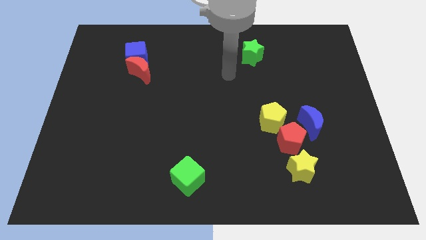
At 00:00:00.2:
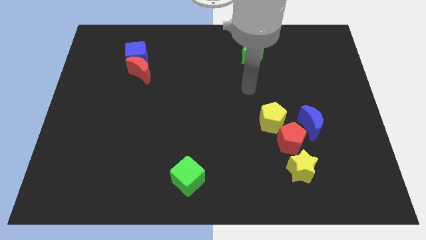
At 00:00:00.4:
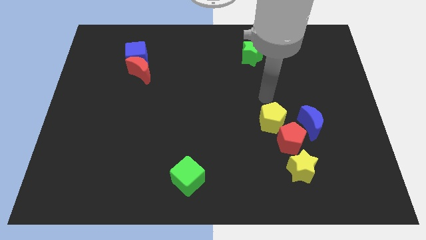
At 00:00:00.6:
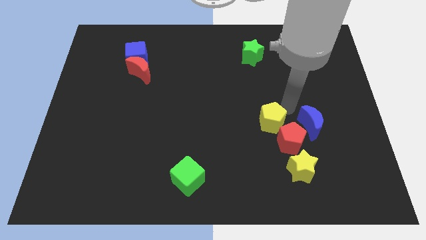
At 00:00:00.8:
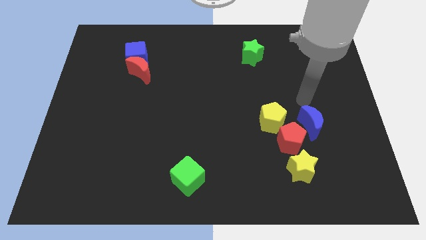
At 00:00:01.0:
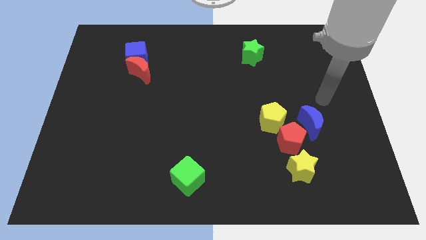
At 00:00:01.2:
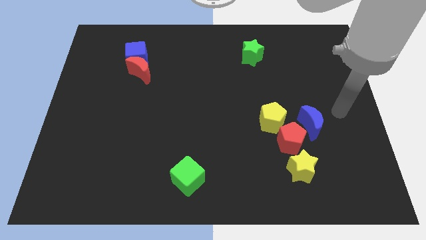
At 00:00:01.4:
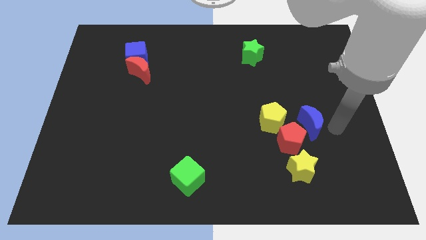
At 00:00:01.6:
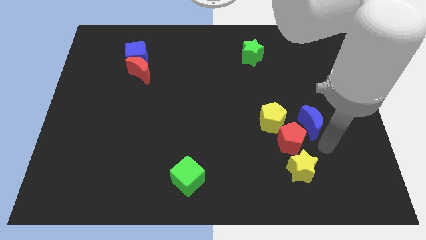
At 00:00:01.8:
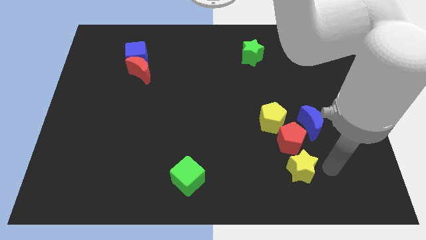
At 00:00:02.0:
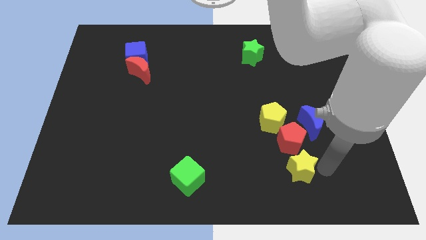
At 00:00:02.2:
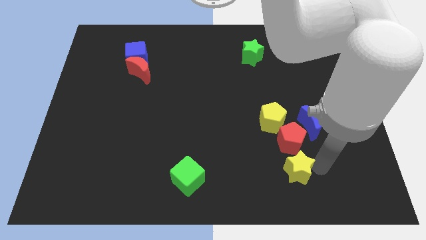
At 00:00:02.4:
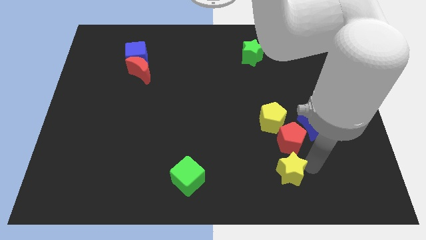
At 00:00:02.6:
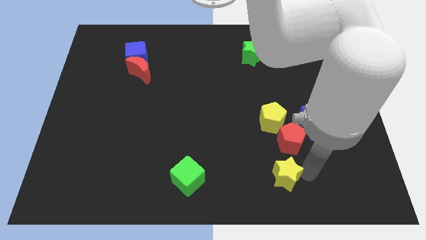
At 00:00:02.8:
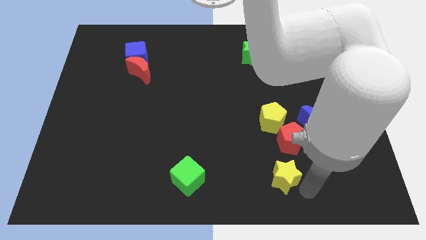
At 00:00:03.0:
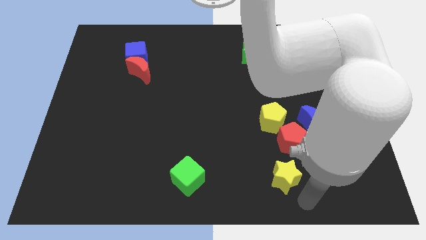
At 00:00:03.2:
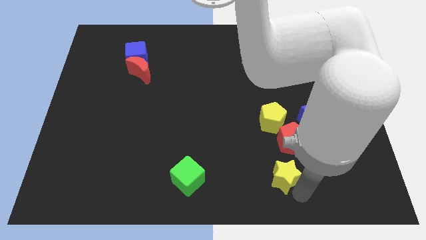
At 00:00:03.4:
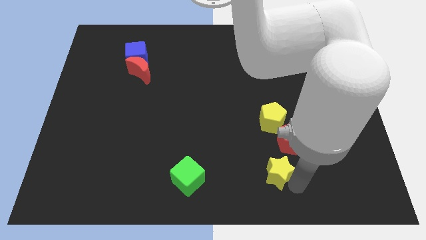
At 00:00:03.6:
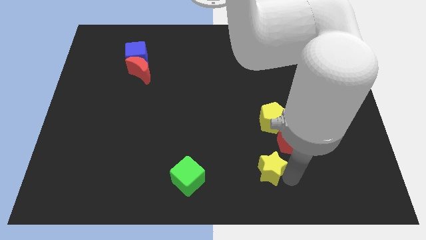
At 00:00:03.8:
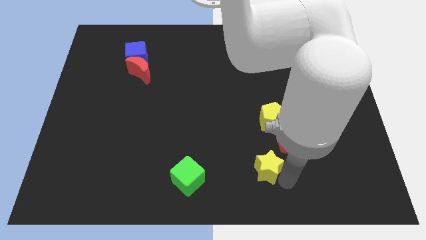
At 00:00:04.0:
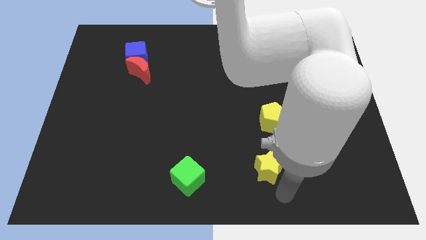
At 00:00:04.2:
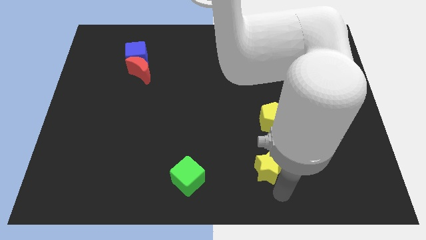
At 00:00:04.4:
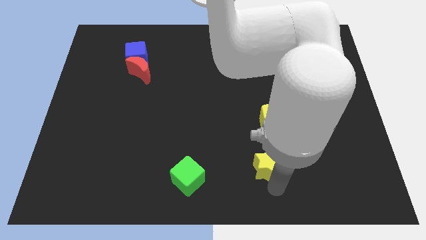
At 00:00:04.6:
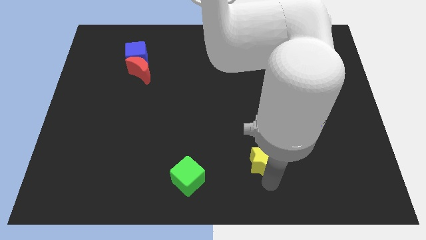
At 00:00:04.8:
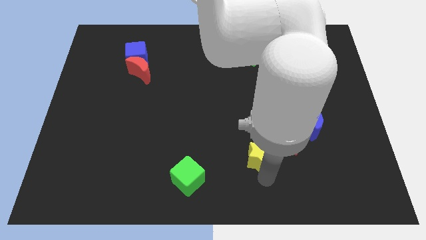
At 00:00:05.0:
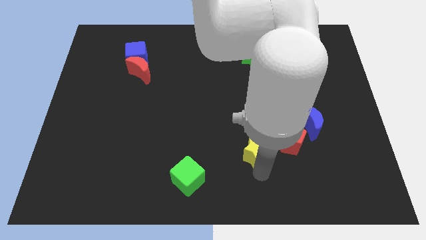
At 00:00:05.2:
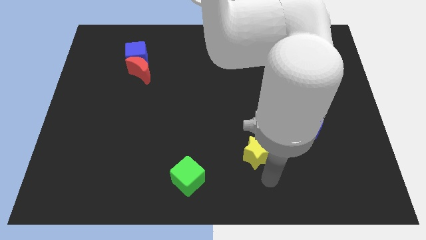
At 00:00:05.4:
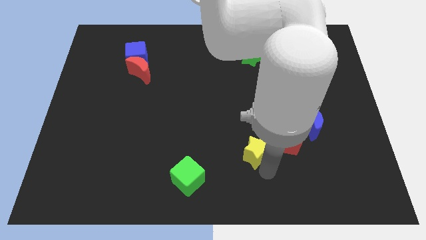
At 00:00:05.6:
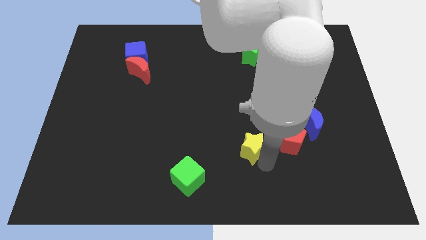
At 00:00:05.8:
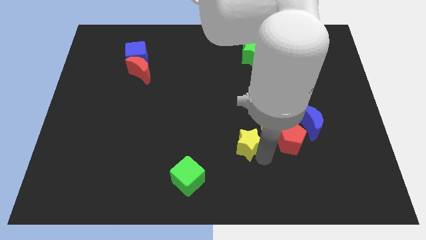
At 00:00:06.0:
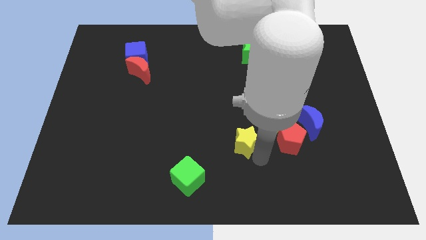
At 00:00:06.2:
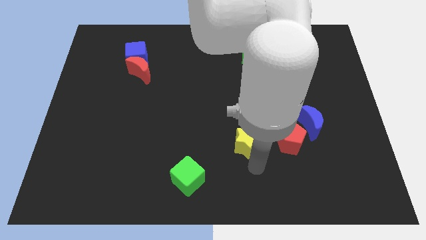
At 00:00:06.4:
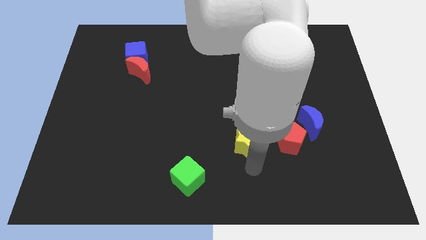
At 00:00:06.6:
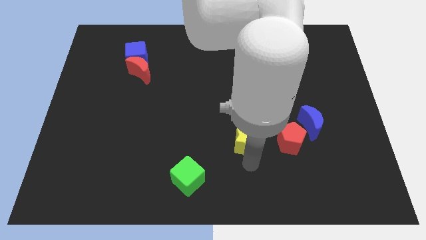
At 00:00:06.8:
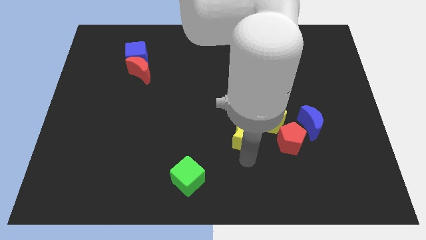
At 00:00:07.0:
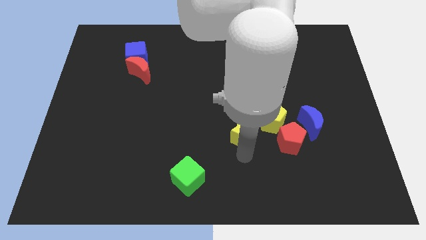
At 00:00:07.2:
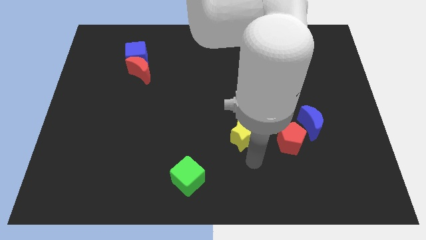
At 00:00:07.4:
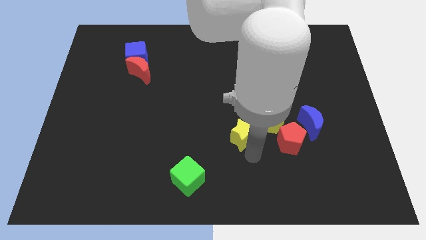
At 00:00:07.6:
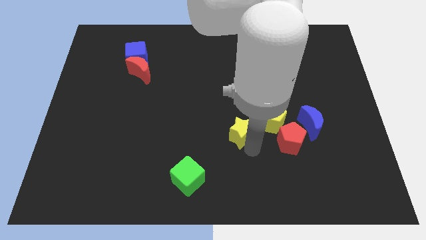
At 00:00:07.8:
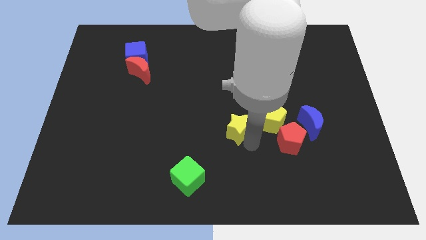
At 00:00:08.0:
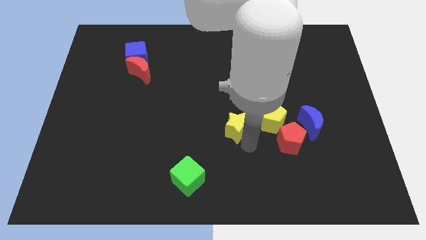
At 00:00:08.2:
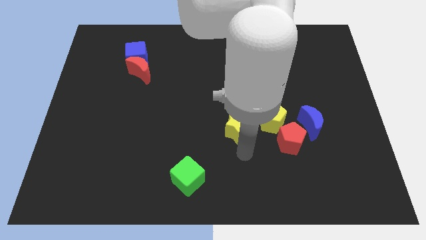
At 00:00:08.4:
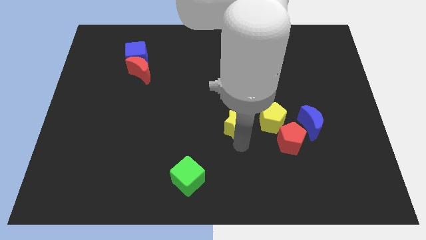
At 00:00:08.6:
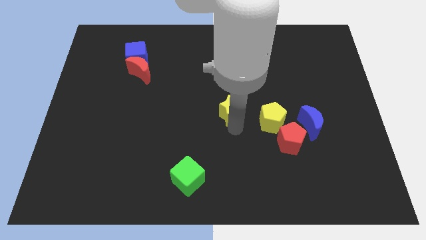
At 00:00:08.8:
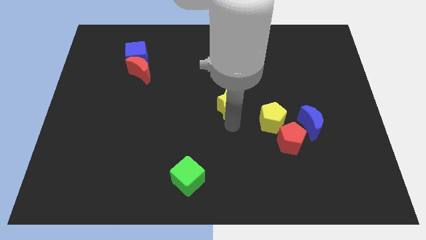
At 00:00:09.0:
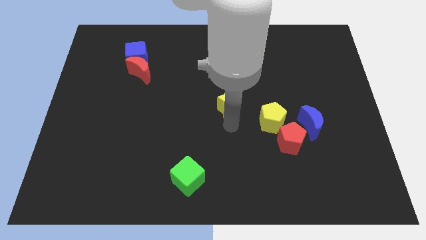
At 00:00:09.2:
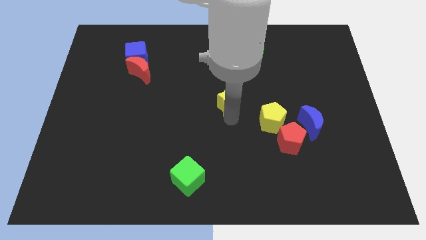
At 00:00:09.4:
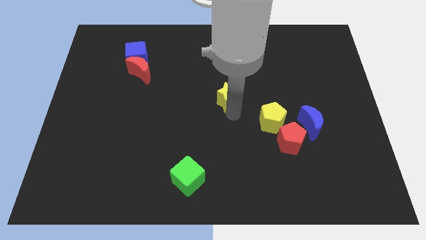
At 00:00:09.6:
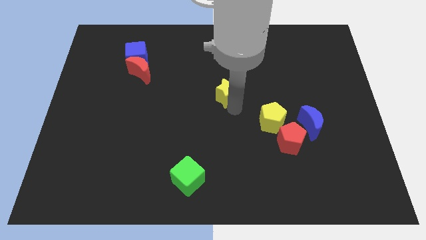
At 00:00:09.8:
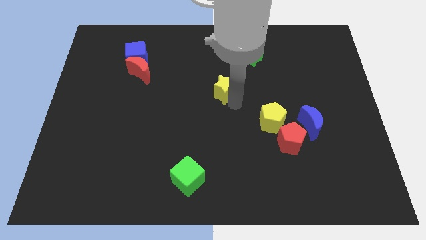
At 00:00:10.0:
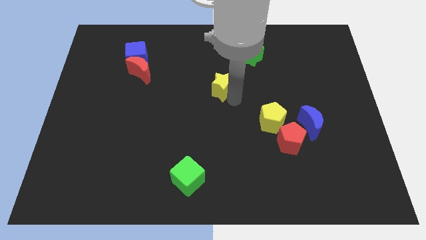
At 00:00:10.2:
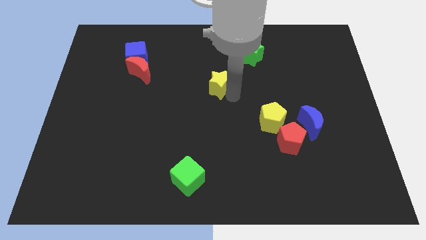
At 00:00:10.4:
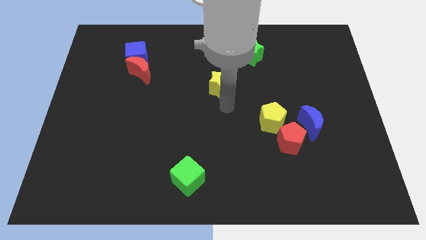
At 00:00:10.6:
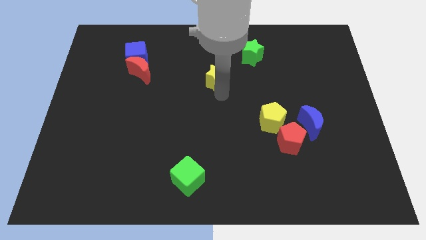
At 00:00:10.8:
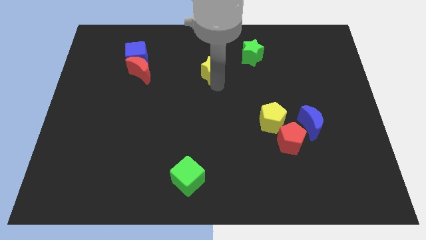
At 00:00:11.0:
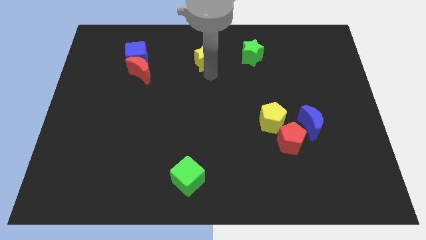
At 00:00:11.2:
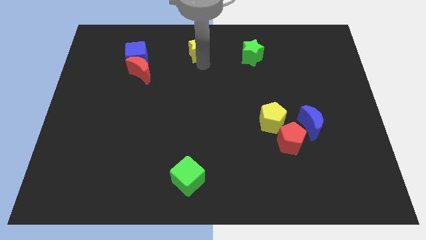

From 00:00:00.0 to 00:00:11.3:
slide the yellow star to the top side
